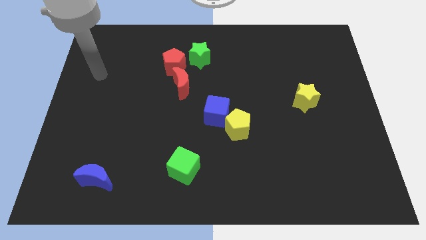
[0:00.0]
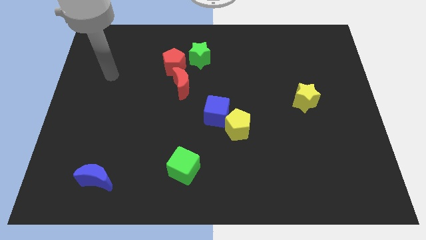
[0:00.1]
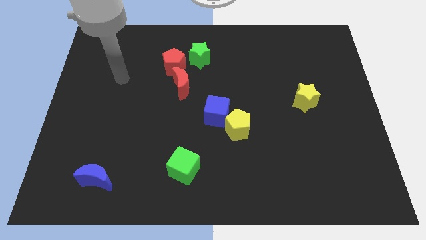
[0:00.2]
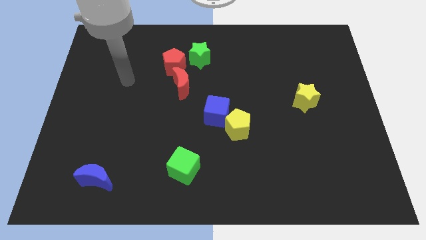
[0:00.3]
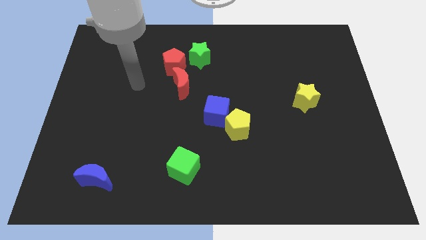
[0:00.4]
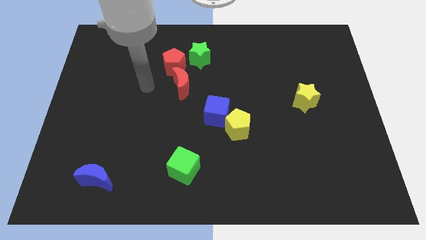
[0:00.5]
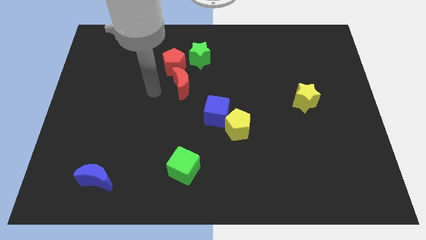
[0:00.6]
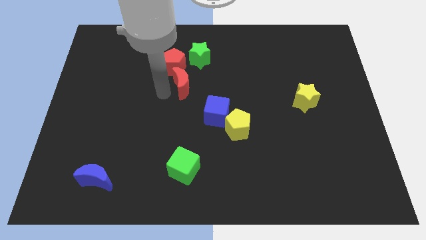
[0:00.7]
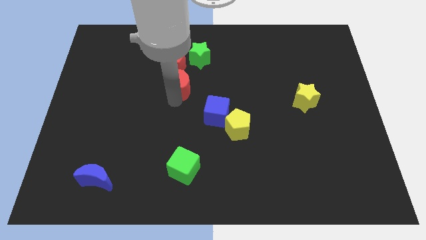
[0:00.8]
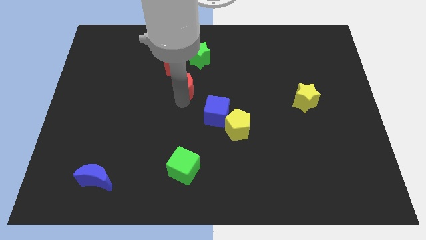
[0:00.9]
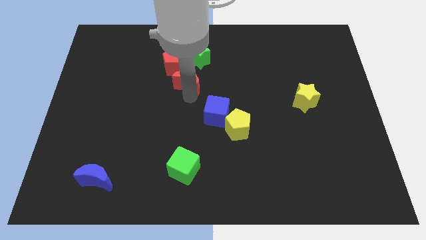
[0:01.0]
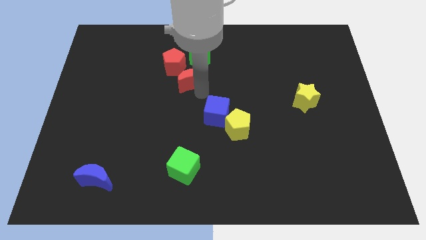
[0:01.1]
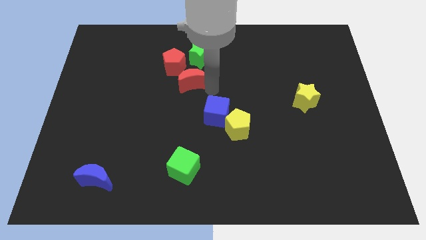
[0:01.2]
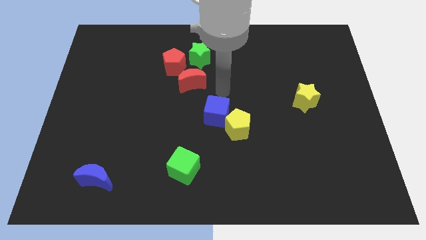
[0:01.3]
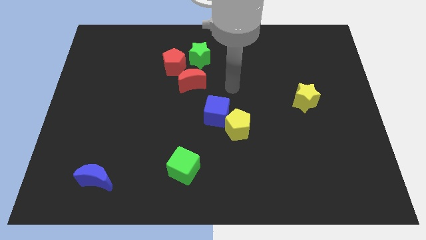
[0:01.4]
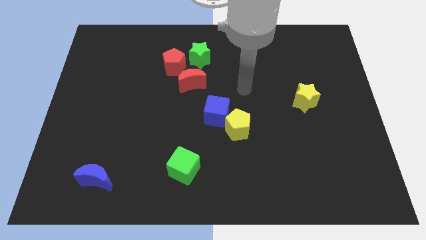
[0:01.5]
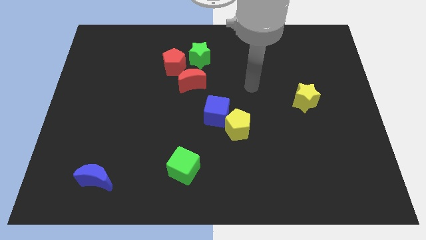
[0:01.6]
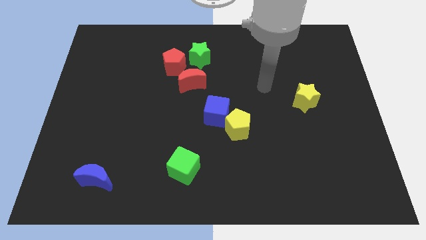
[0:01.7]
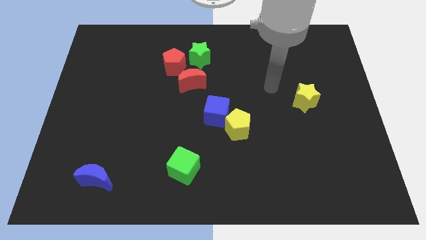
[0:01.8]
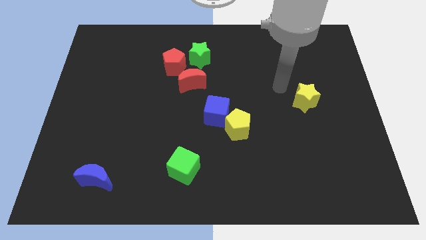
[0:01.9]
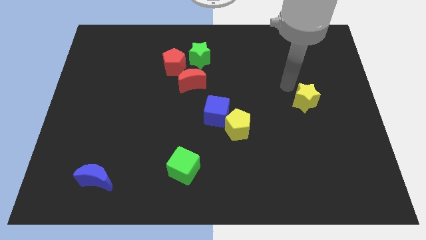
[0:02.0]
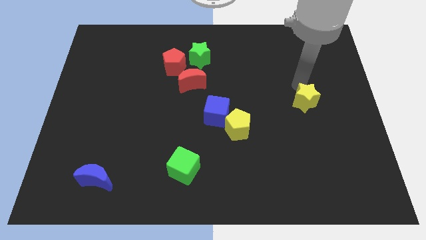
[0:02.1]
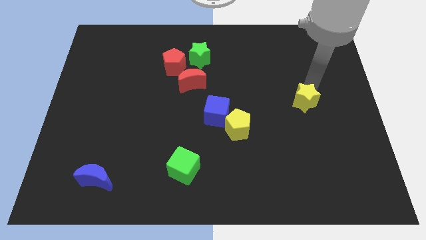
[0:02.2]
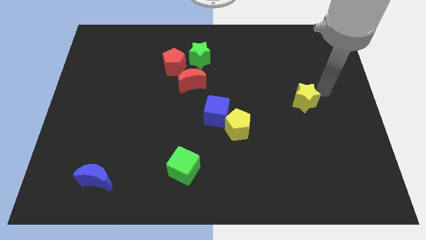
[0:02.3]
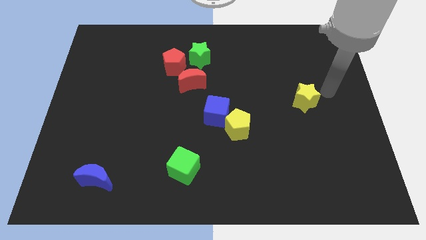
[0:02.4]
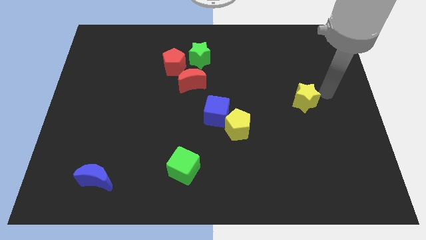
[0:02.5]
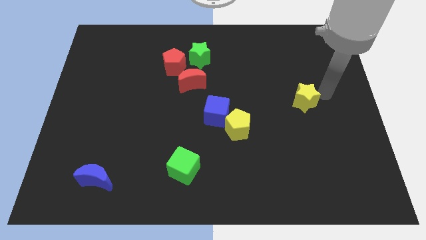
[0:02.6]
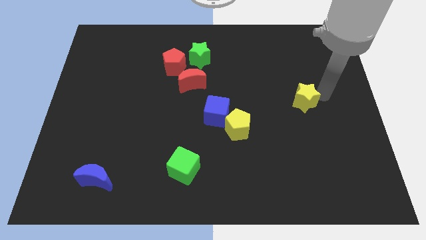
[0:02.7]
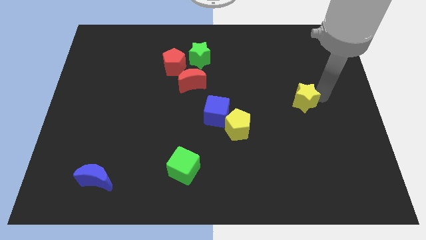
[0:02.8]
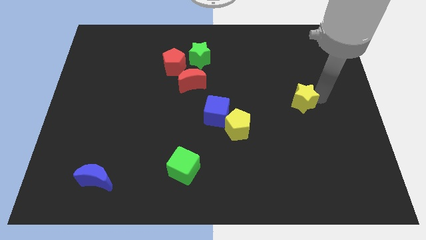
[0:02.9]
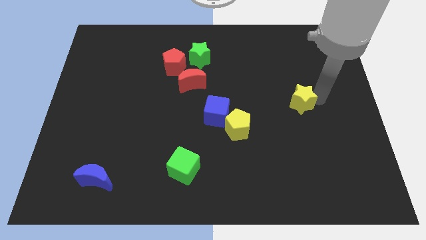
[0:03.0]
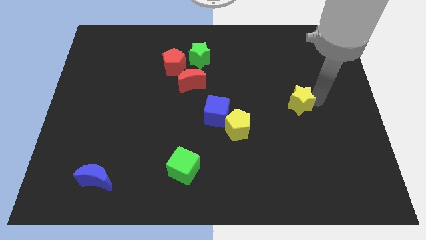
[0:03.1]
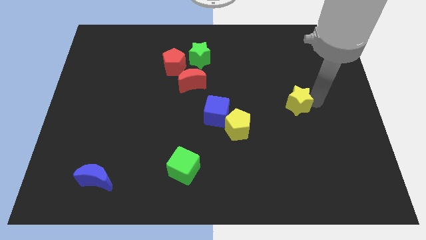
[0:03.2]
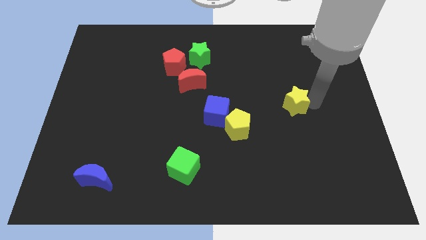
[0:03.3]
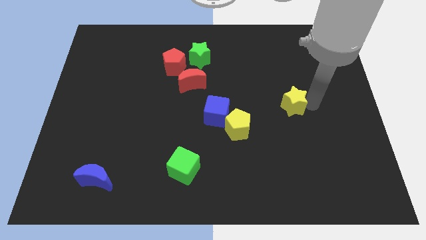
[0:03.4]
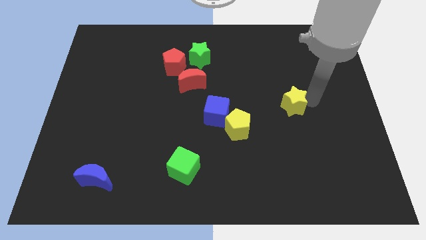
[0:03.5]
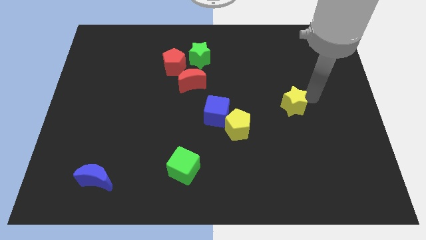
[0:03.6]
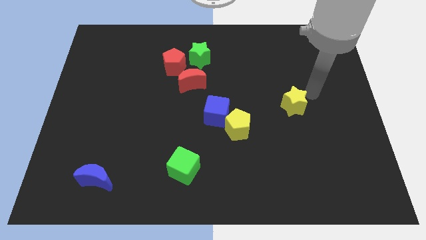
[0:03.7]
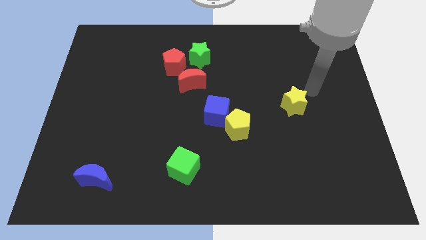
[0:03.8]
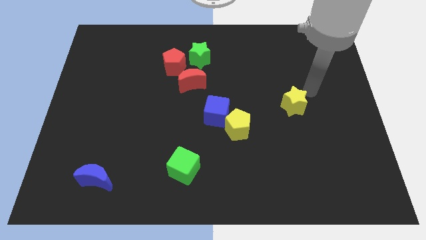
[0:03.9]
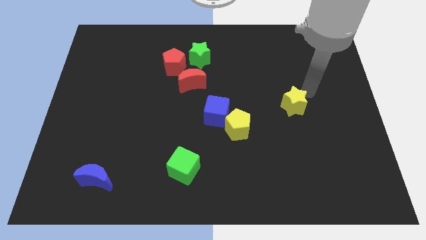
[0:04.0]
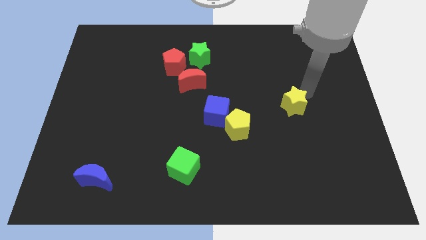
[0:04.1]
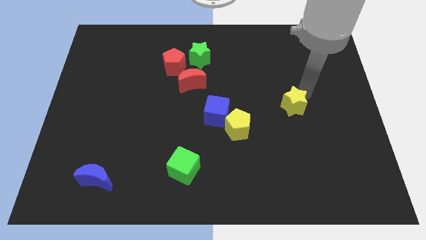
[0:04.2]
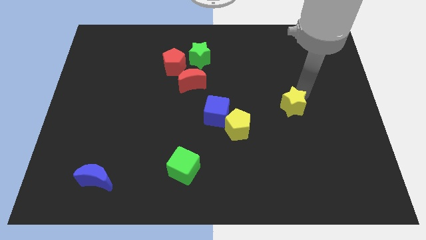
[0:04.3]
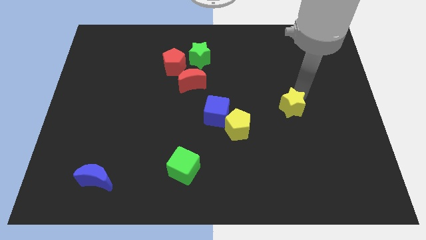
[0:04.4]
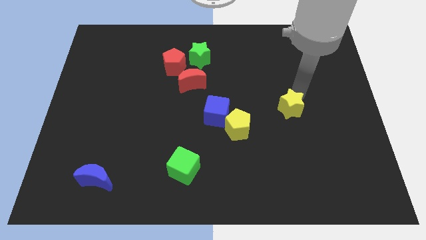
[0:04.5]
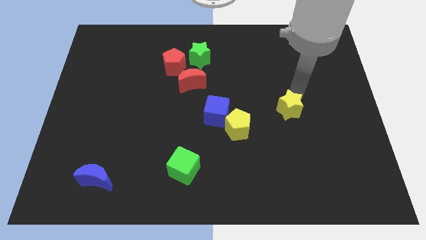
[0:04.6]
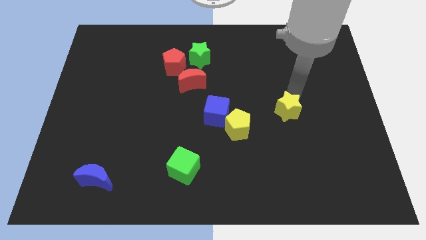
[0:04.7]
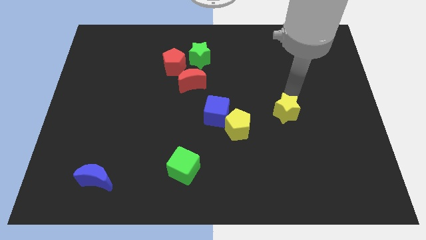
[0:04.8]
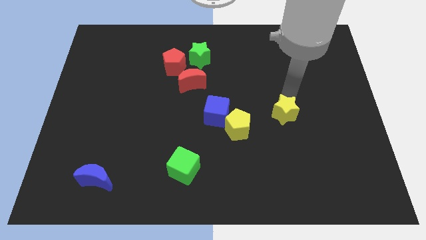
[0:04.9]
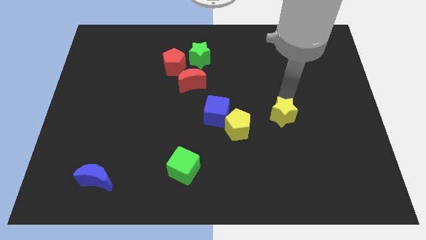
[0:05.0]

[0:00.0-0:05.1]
slide the yellow star a little bit downwards and then to the left

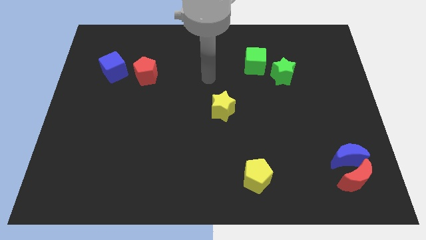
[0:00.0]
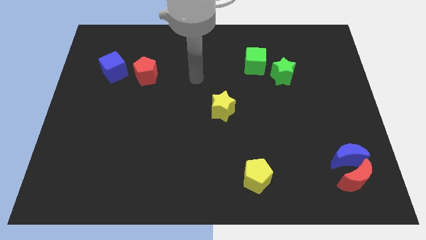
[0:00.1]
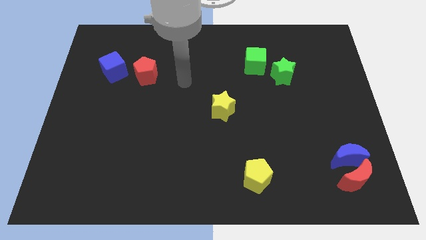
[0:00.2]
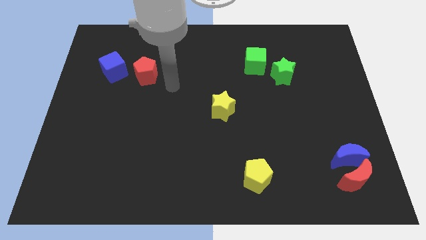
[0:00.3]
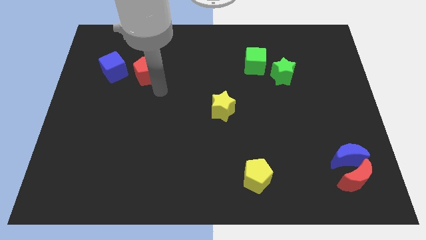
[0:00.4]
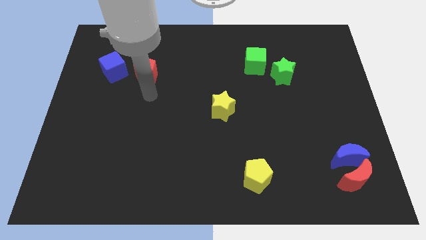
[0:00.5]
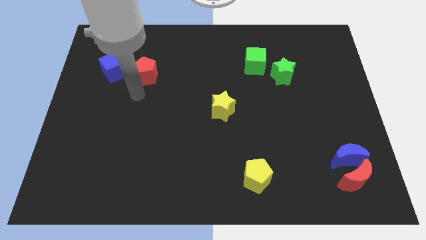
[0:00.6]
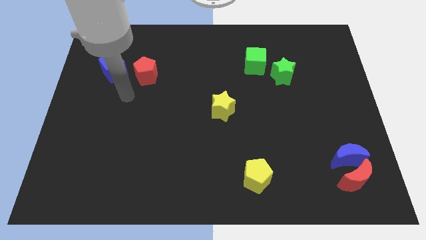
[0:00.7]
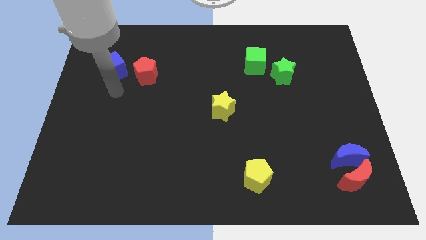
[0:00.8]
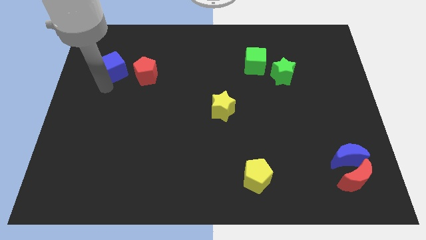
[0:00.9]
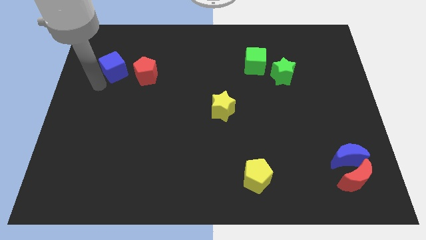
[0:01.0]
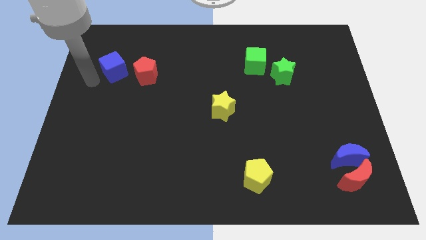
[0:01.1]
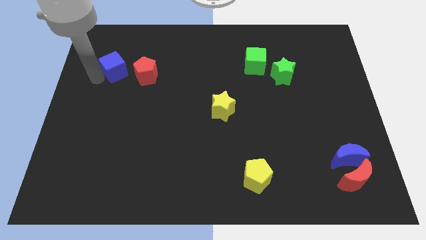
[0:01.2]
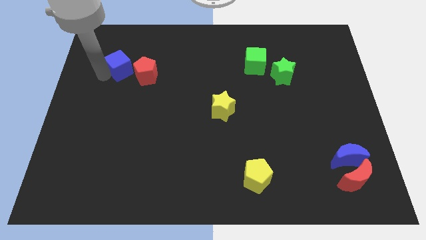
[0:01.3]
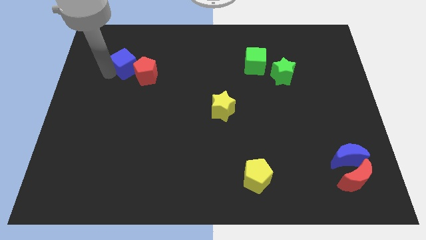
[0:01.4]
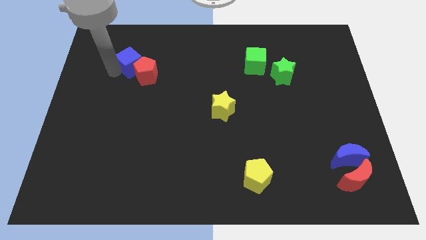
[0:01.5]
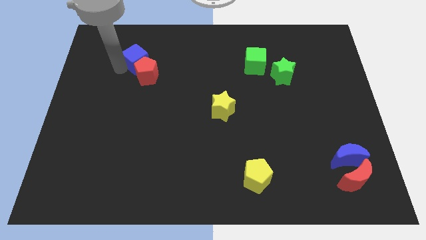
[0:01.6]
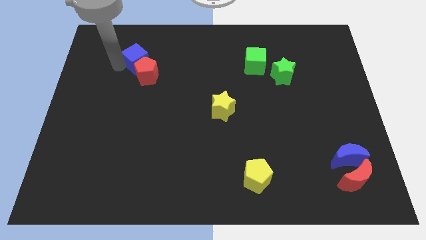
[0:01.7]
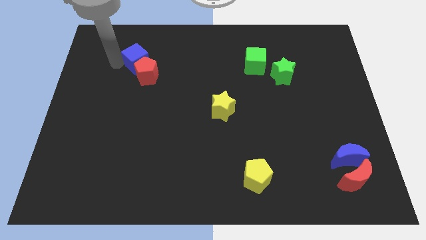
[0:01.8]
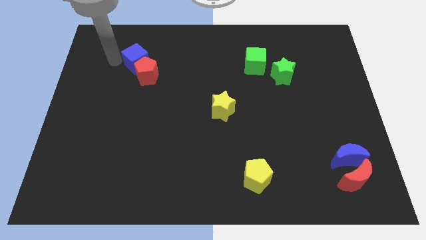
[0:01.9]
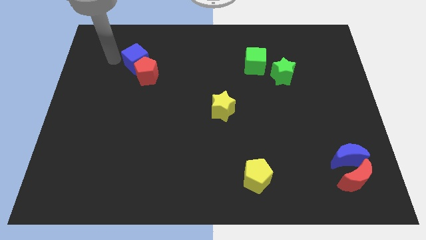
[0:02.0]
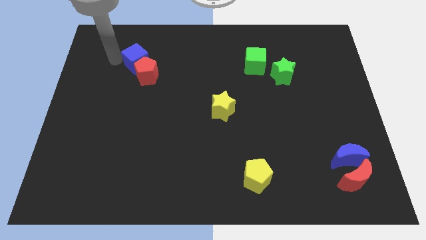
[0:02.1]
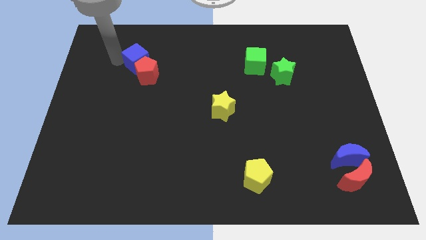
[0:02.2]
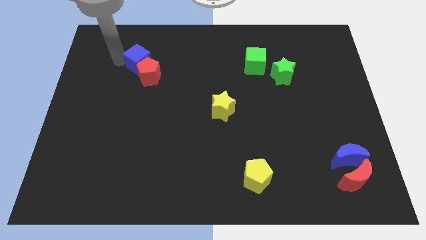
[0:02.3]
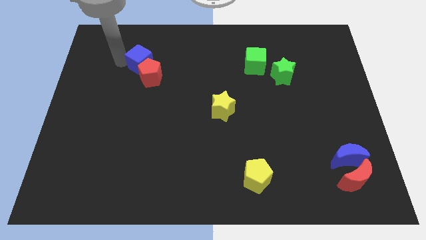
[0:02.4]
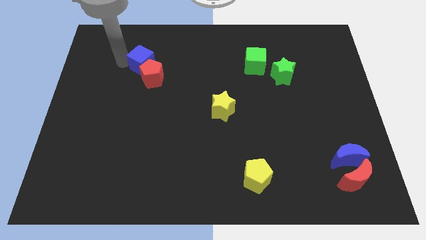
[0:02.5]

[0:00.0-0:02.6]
slide the blue cube to the right a little bit
